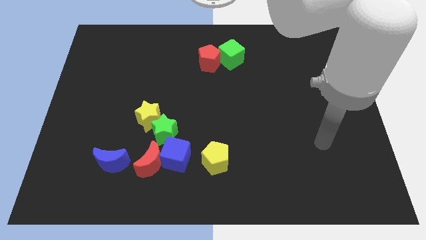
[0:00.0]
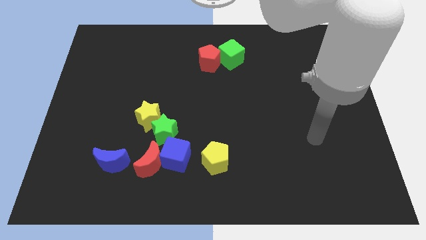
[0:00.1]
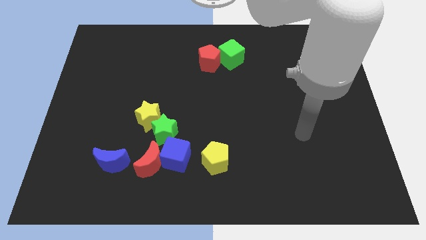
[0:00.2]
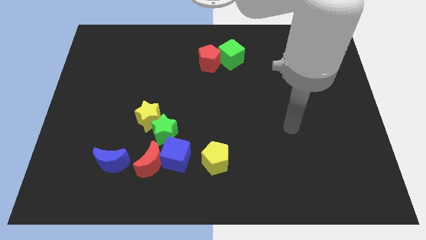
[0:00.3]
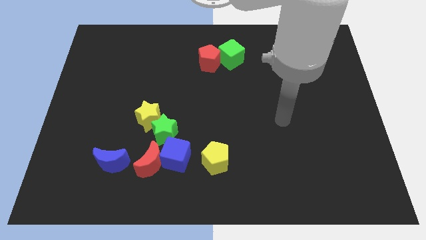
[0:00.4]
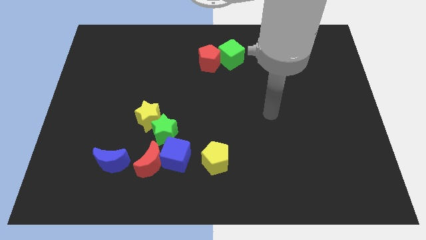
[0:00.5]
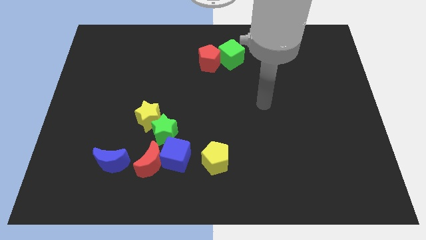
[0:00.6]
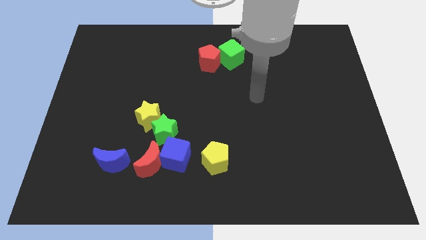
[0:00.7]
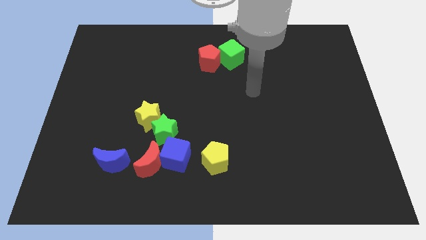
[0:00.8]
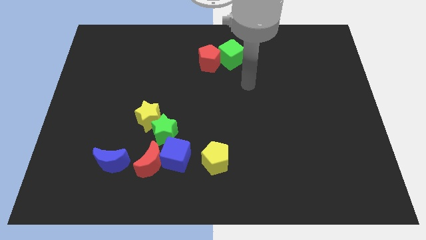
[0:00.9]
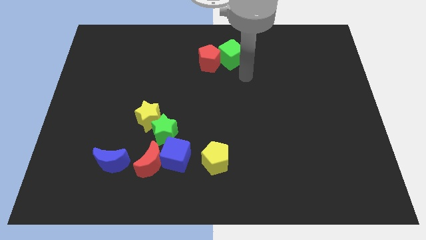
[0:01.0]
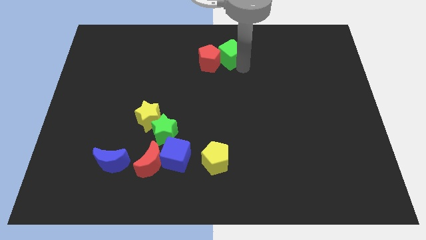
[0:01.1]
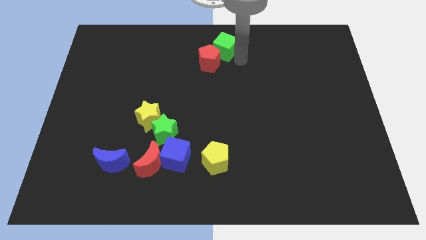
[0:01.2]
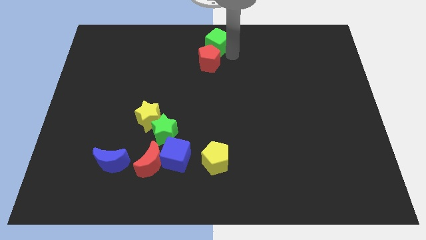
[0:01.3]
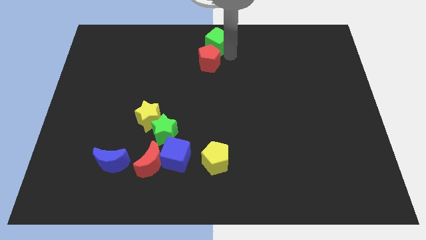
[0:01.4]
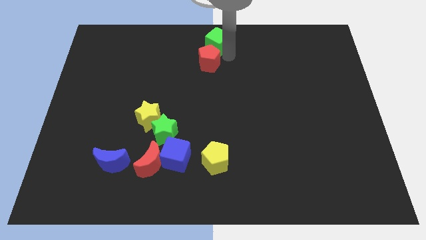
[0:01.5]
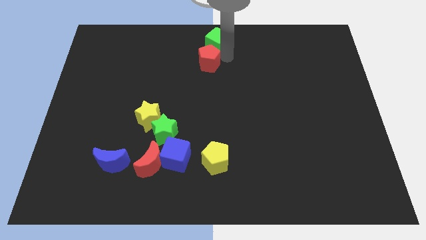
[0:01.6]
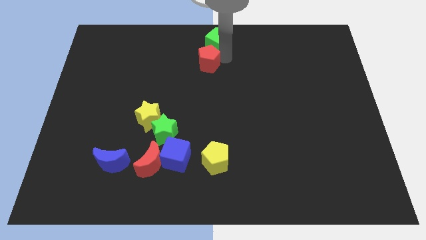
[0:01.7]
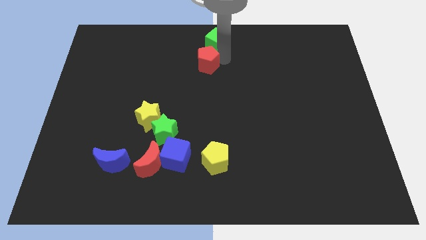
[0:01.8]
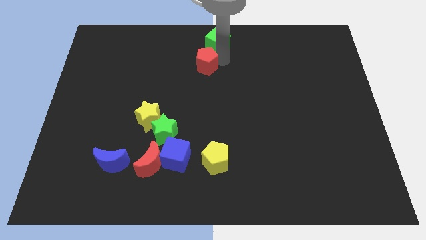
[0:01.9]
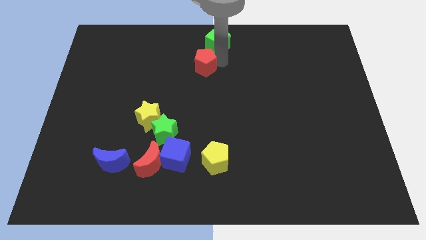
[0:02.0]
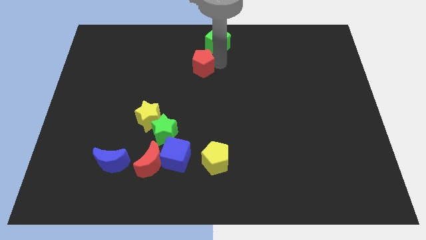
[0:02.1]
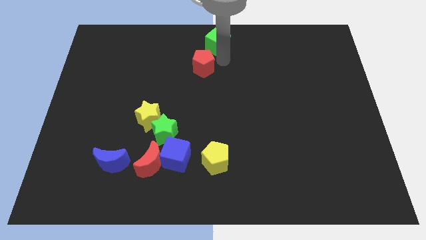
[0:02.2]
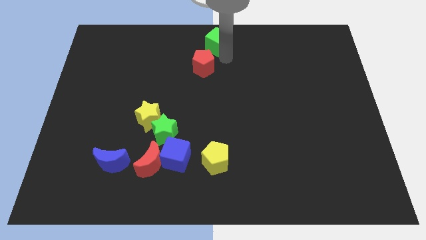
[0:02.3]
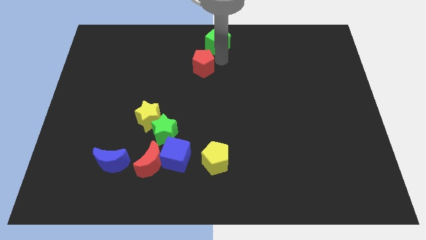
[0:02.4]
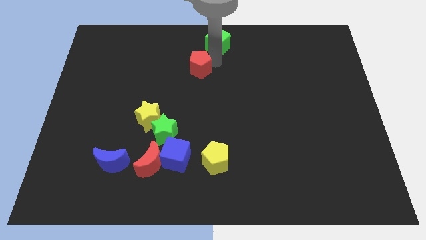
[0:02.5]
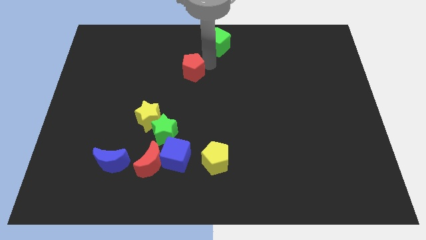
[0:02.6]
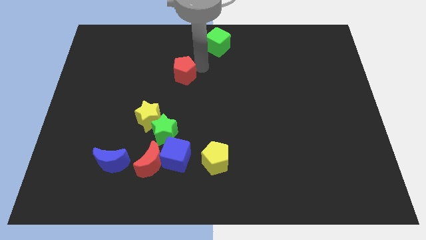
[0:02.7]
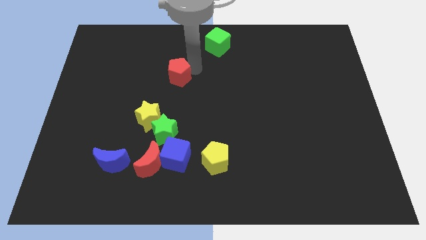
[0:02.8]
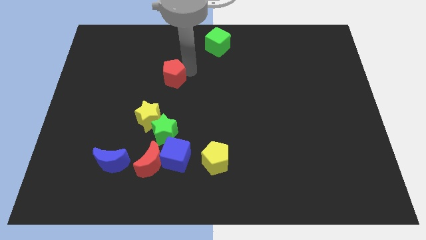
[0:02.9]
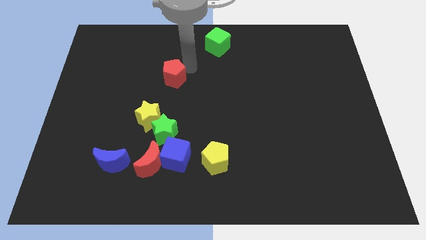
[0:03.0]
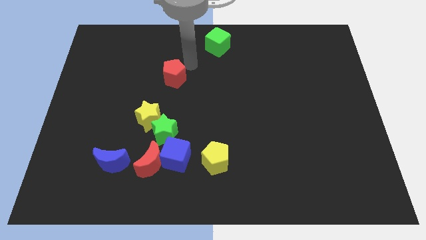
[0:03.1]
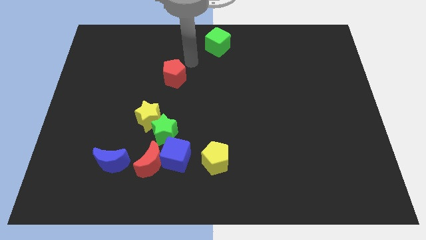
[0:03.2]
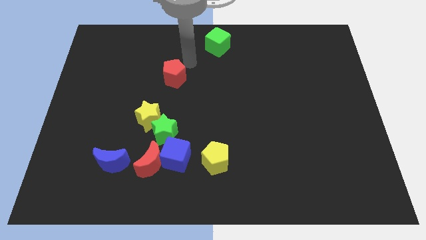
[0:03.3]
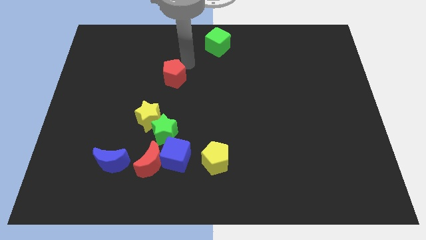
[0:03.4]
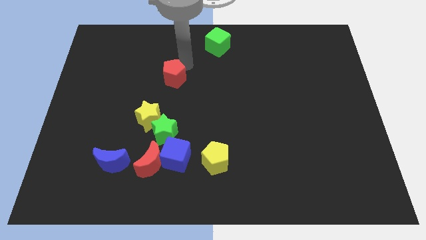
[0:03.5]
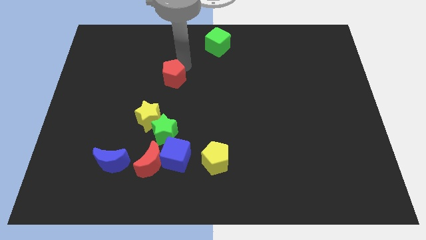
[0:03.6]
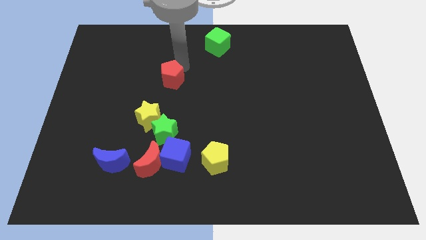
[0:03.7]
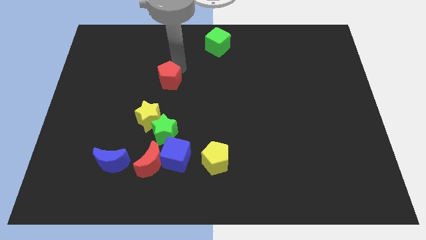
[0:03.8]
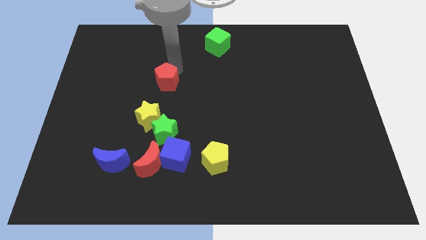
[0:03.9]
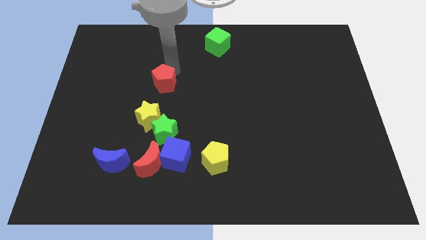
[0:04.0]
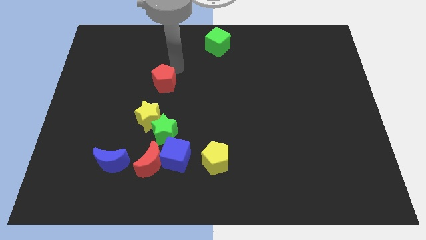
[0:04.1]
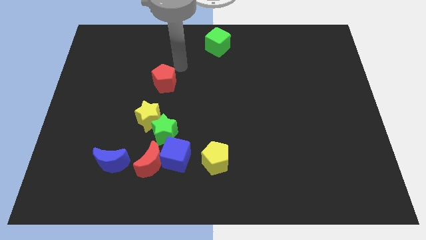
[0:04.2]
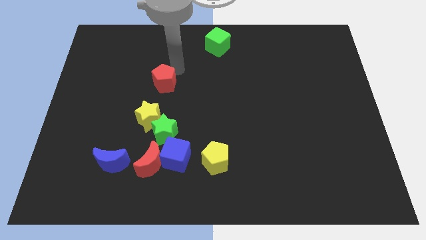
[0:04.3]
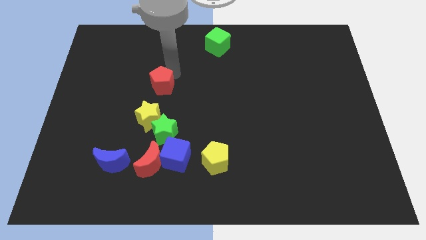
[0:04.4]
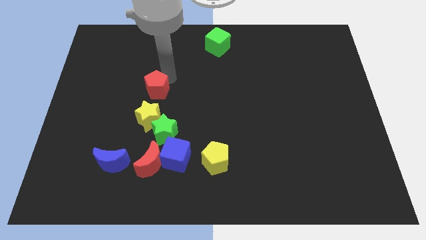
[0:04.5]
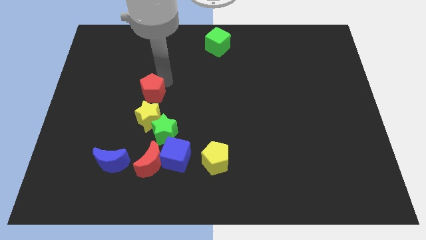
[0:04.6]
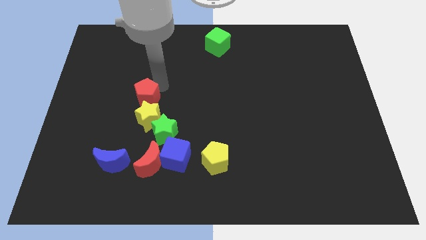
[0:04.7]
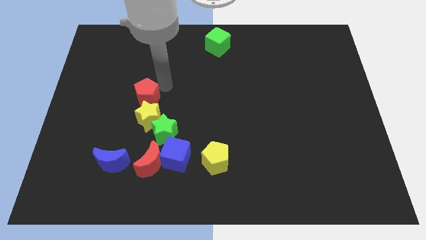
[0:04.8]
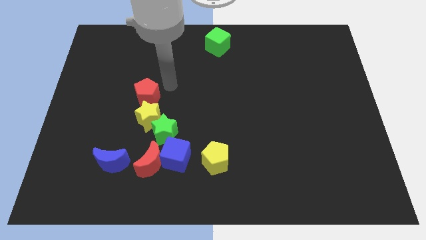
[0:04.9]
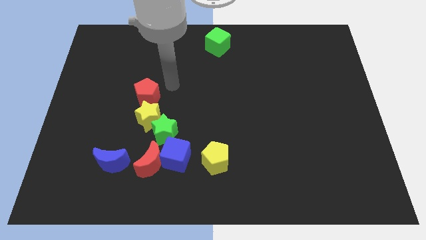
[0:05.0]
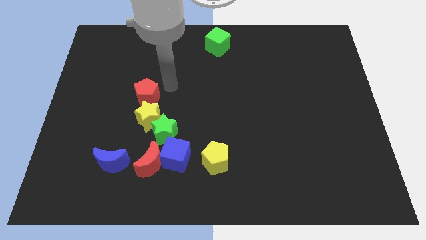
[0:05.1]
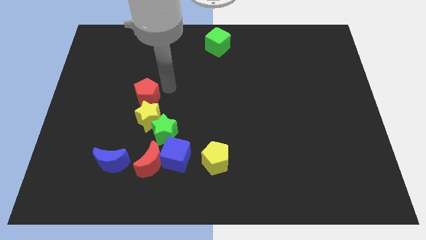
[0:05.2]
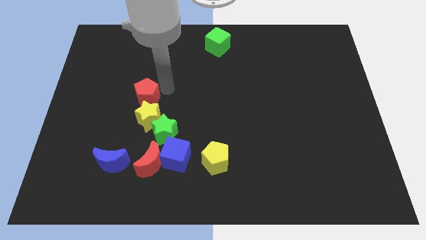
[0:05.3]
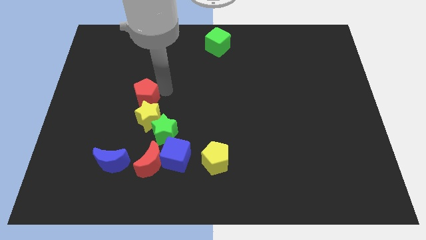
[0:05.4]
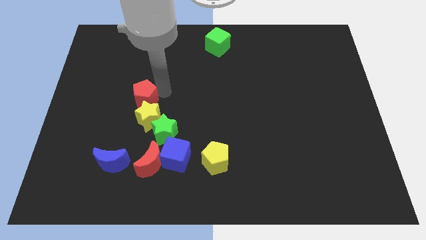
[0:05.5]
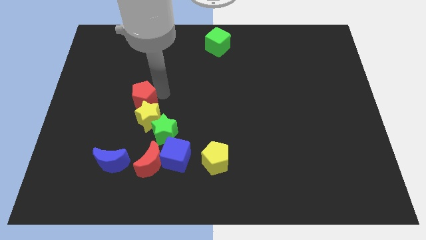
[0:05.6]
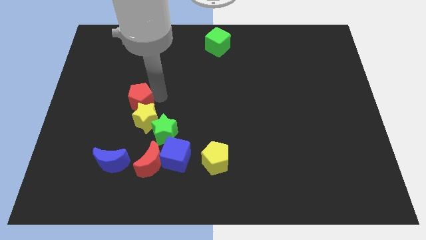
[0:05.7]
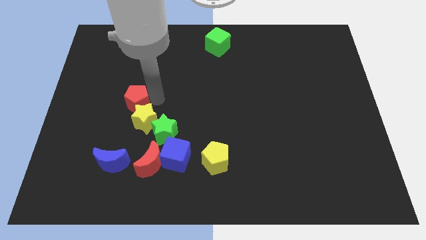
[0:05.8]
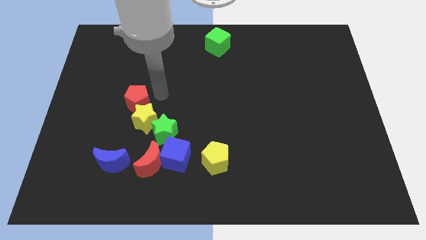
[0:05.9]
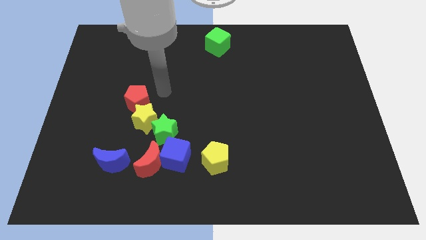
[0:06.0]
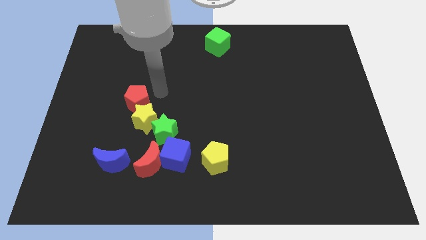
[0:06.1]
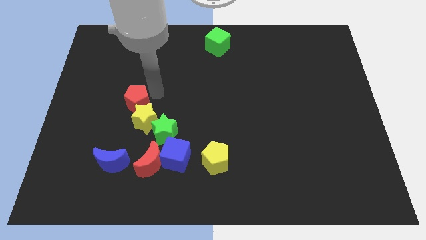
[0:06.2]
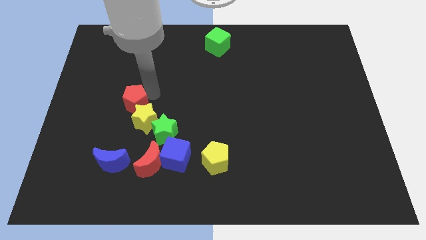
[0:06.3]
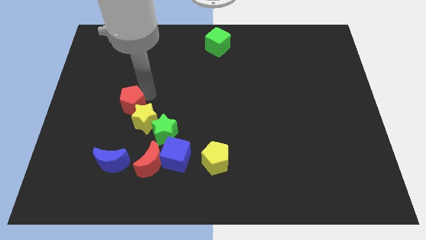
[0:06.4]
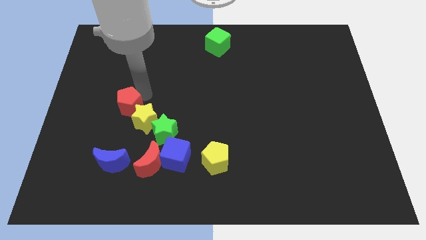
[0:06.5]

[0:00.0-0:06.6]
move the red pentagon to the left side of the yellow star

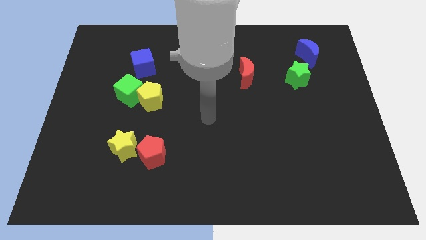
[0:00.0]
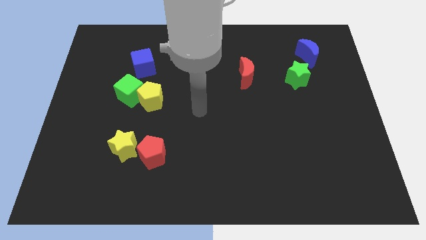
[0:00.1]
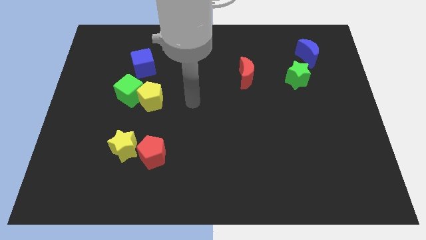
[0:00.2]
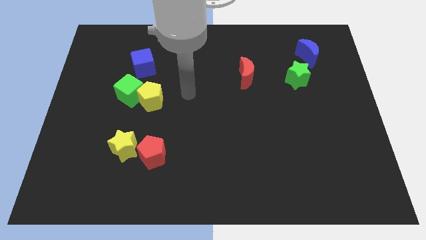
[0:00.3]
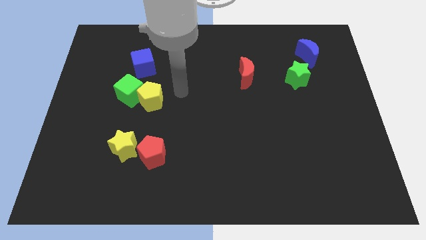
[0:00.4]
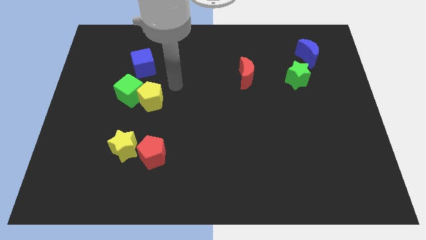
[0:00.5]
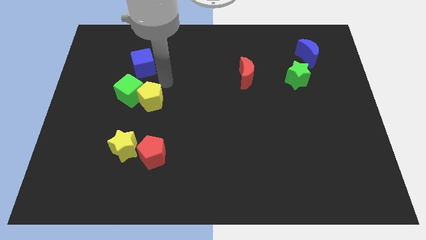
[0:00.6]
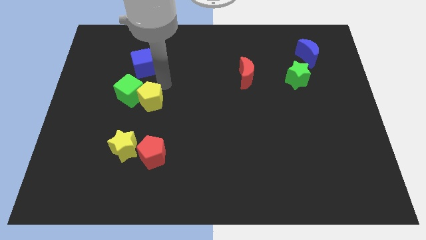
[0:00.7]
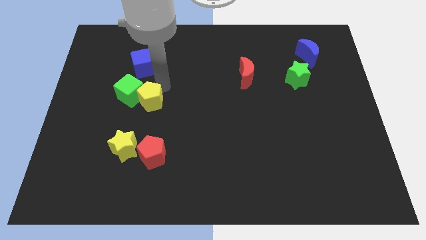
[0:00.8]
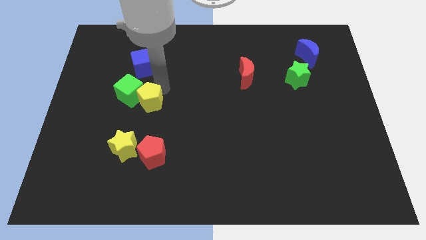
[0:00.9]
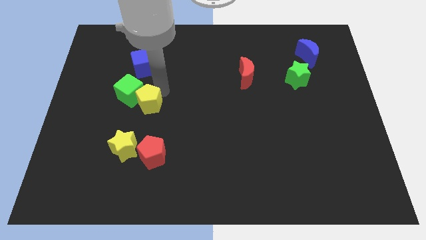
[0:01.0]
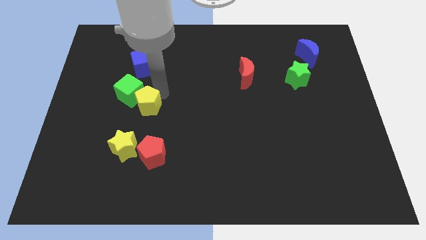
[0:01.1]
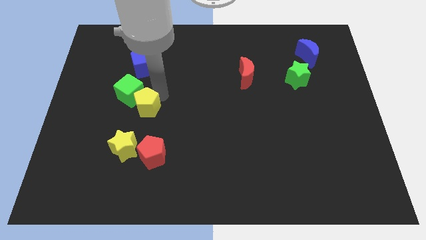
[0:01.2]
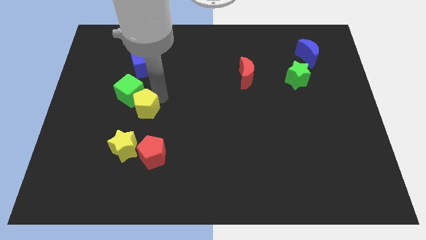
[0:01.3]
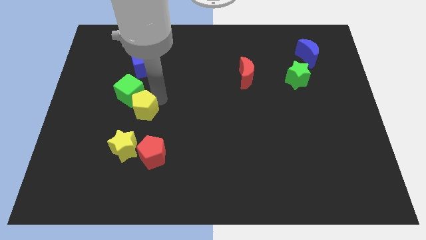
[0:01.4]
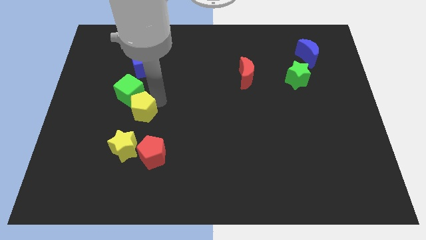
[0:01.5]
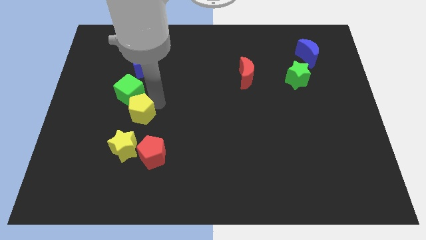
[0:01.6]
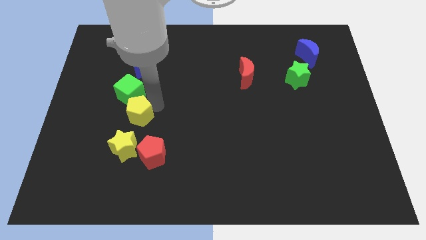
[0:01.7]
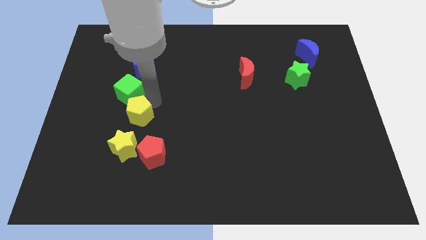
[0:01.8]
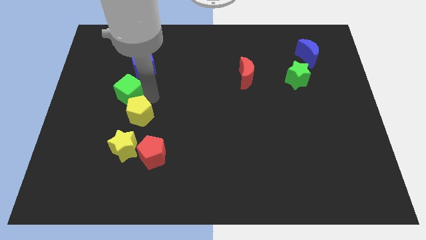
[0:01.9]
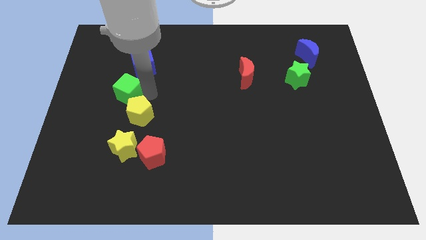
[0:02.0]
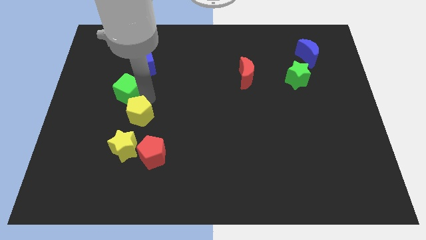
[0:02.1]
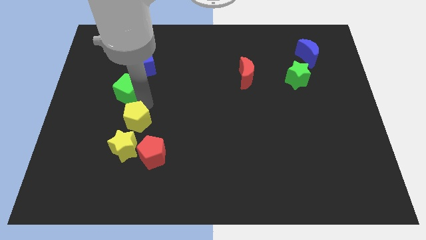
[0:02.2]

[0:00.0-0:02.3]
move the yellow pentagon to the top left of the red pentagon
